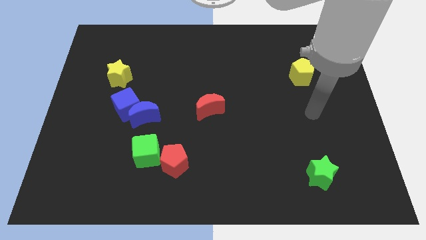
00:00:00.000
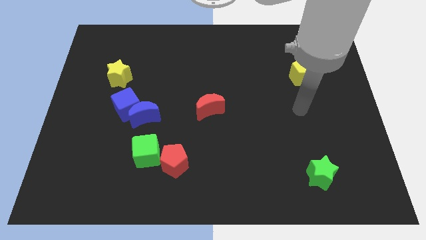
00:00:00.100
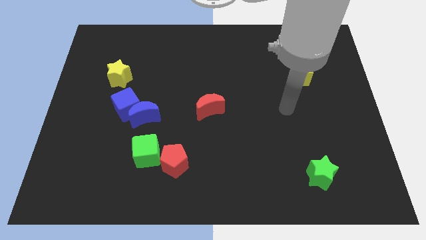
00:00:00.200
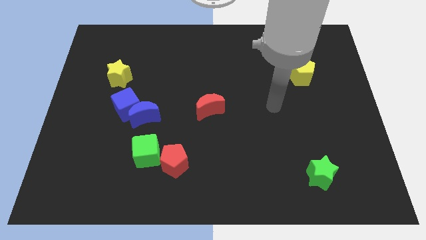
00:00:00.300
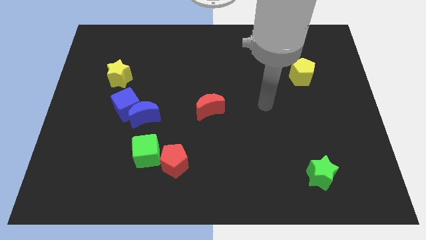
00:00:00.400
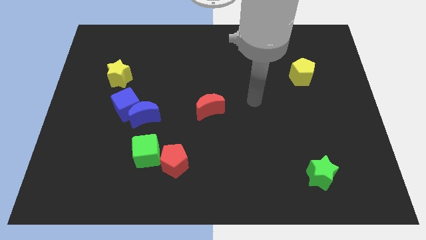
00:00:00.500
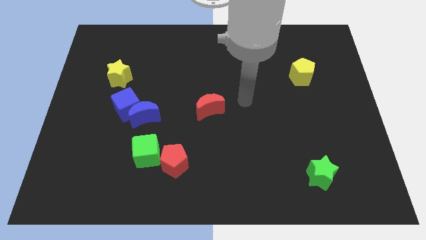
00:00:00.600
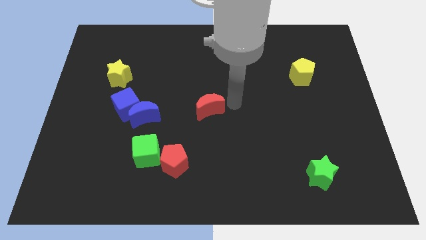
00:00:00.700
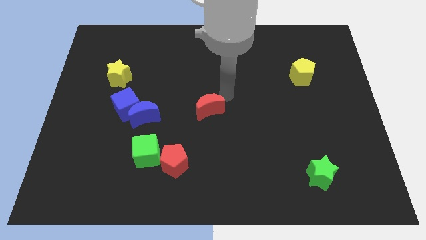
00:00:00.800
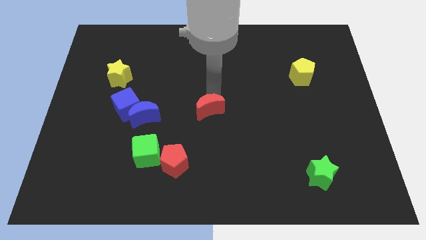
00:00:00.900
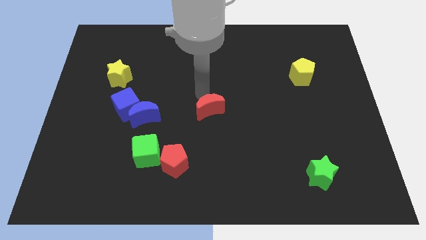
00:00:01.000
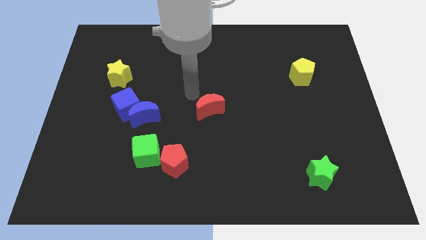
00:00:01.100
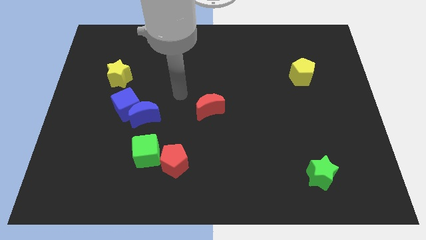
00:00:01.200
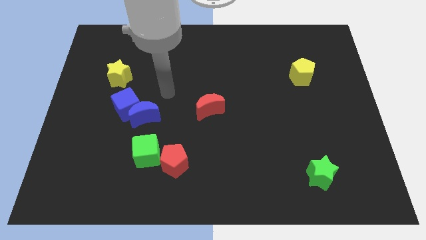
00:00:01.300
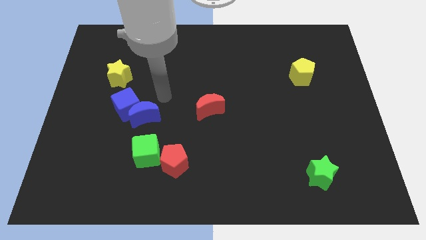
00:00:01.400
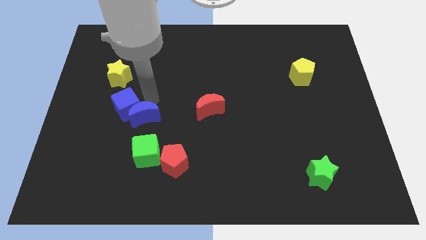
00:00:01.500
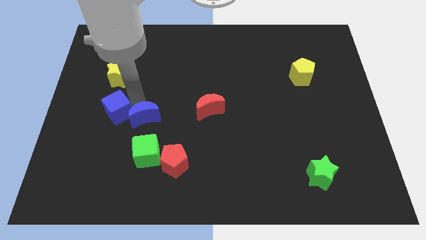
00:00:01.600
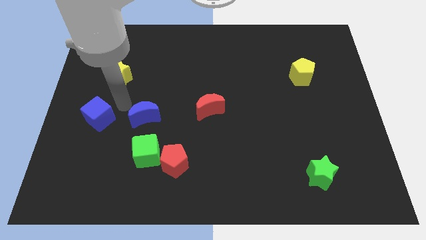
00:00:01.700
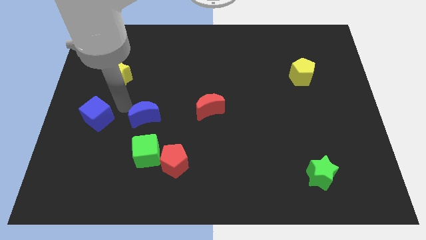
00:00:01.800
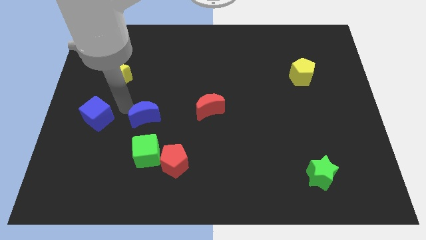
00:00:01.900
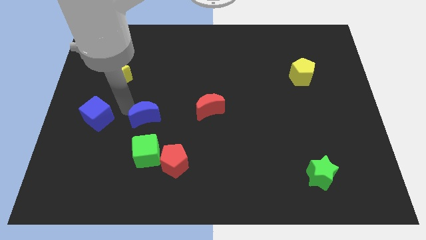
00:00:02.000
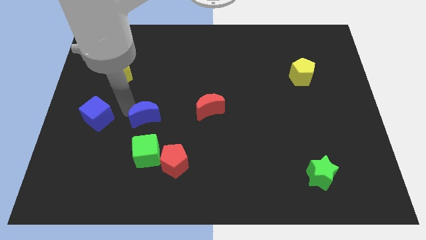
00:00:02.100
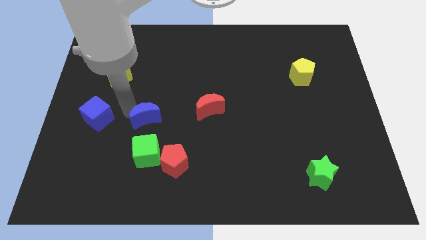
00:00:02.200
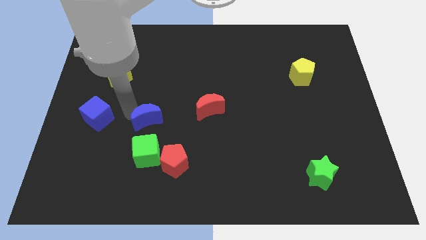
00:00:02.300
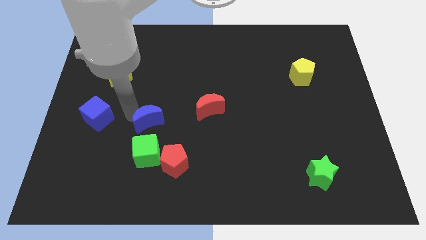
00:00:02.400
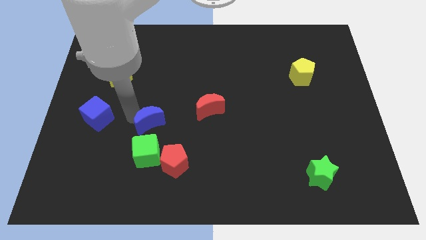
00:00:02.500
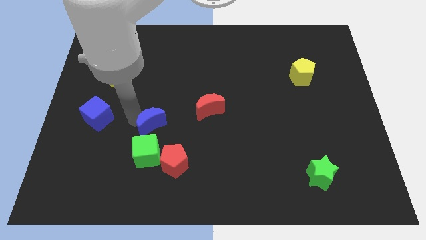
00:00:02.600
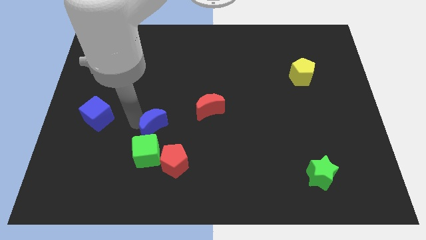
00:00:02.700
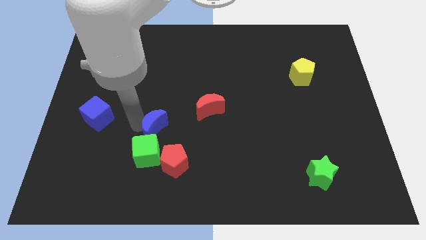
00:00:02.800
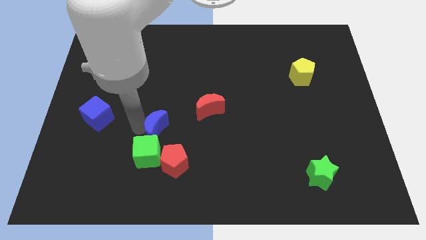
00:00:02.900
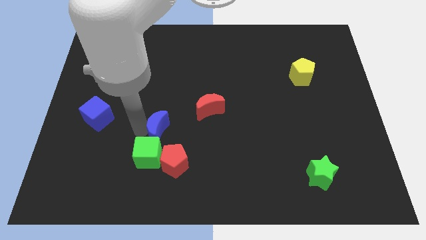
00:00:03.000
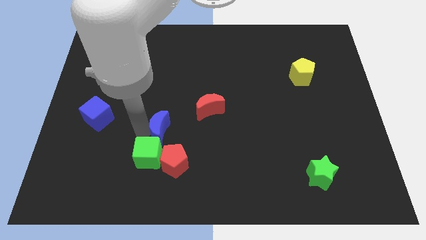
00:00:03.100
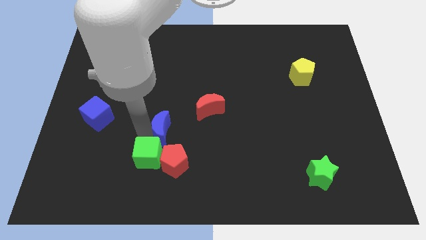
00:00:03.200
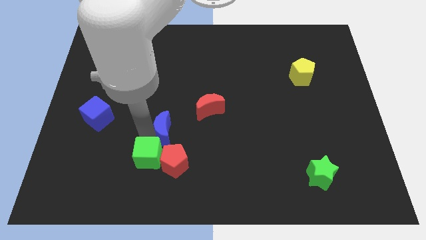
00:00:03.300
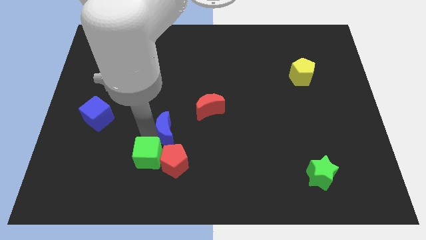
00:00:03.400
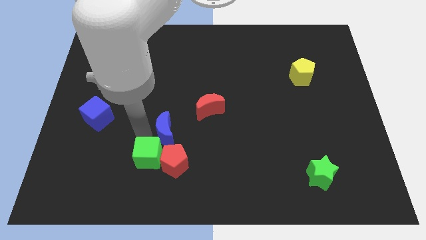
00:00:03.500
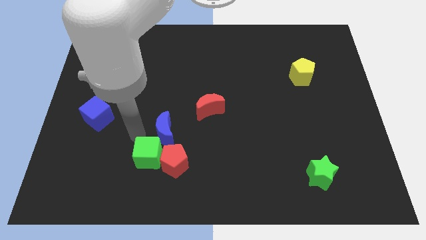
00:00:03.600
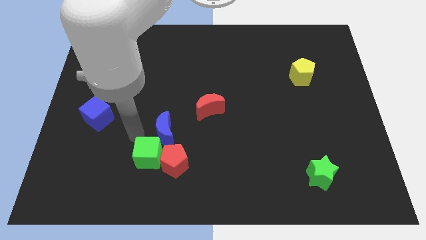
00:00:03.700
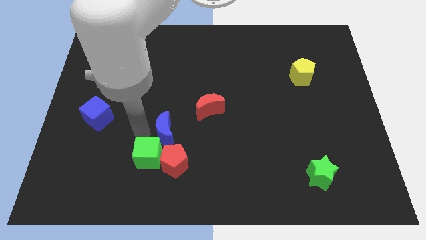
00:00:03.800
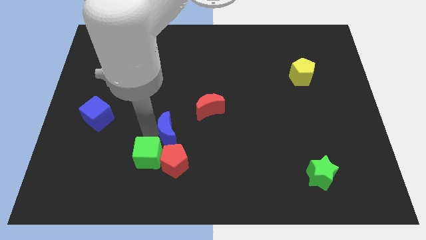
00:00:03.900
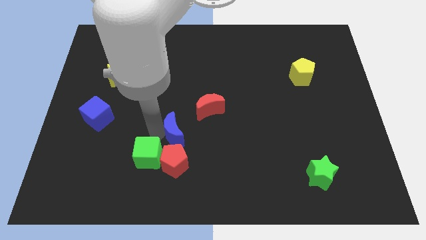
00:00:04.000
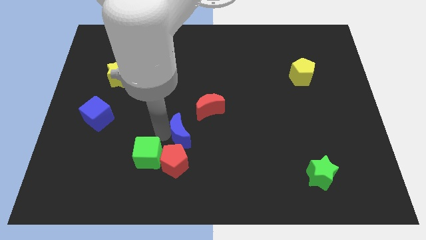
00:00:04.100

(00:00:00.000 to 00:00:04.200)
slightly slide the blue moon right

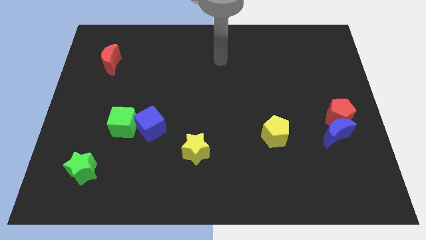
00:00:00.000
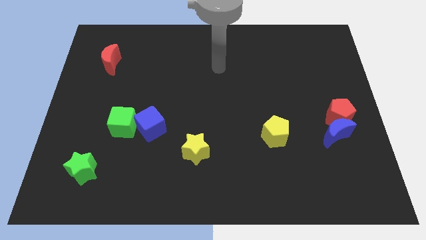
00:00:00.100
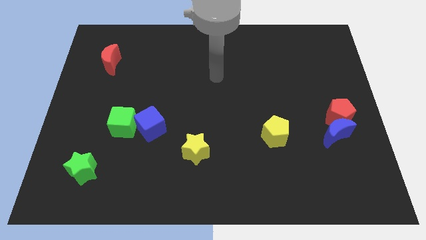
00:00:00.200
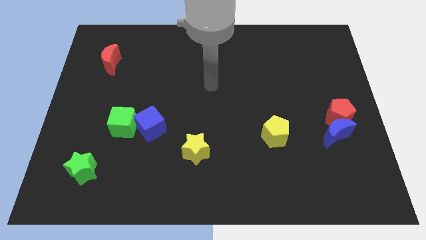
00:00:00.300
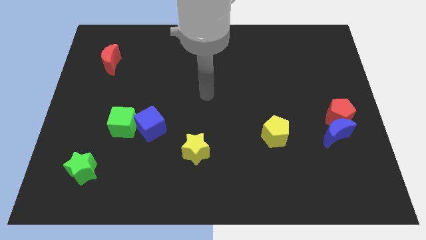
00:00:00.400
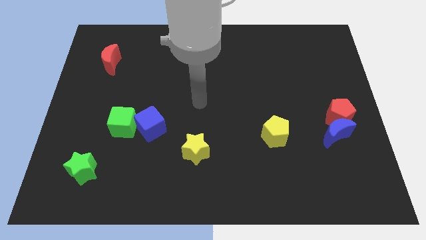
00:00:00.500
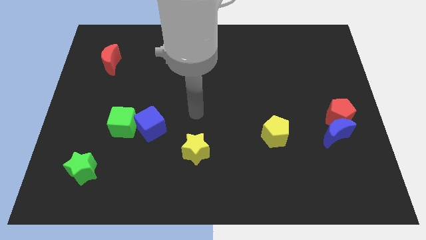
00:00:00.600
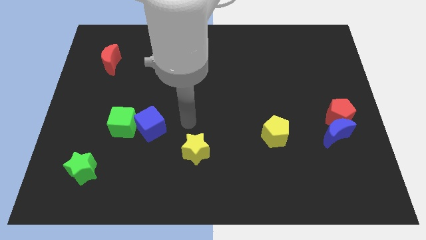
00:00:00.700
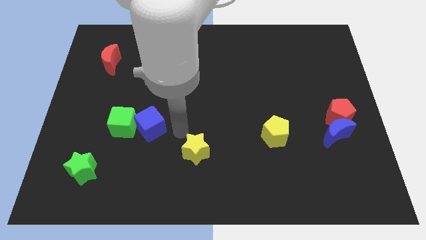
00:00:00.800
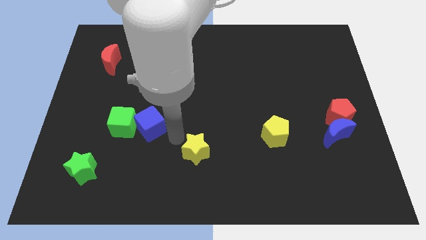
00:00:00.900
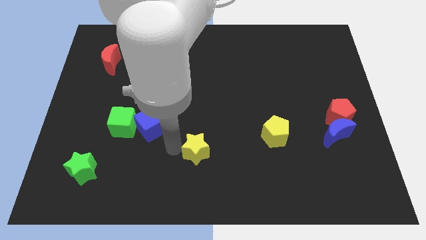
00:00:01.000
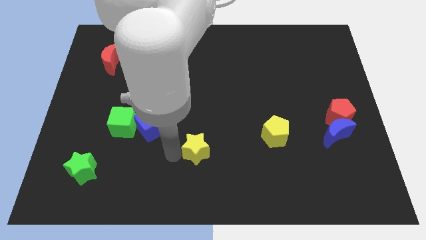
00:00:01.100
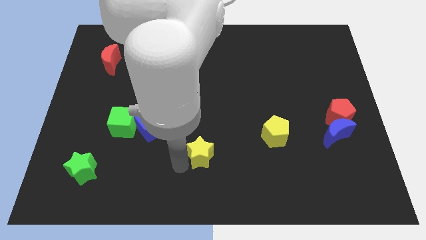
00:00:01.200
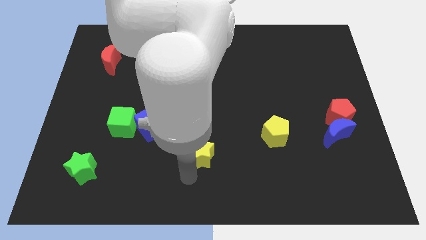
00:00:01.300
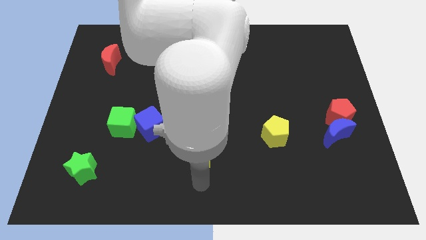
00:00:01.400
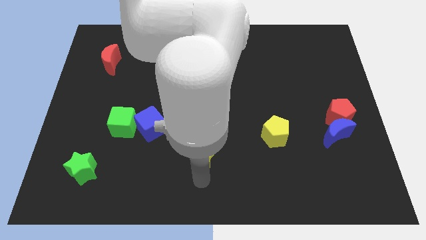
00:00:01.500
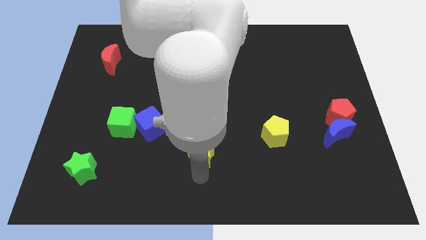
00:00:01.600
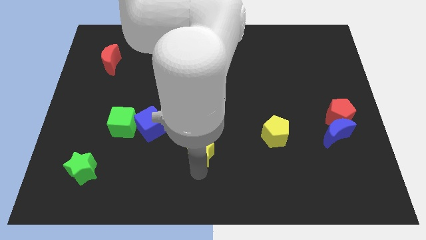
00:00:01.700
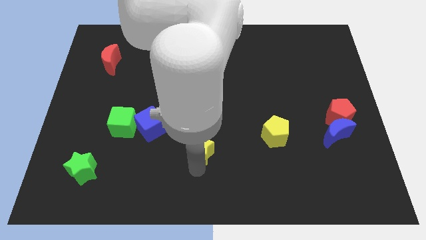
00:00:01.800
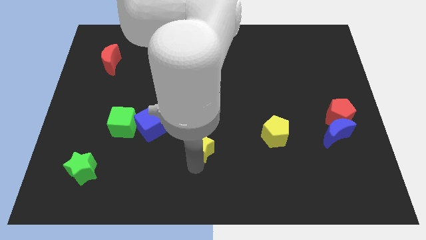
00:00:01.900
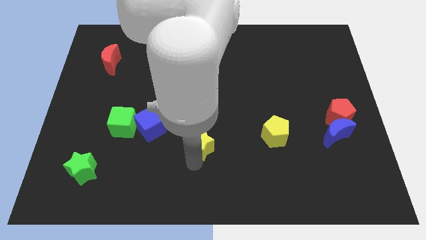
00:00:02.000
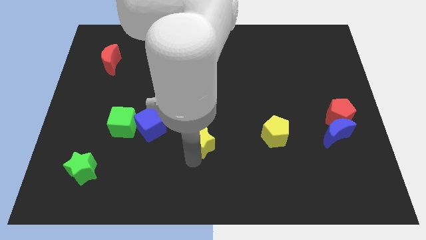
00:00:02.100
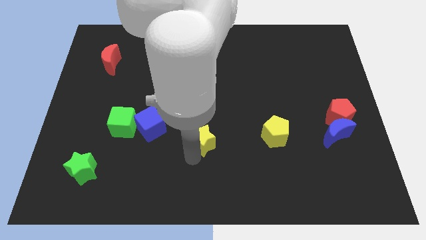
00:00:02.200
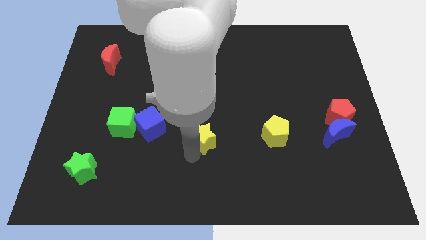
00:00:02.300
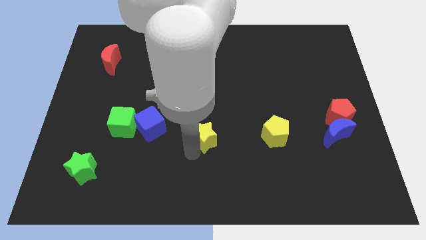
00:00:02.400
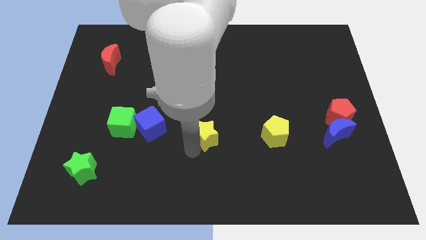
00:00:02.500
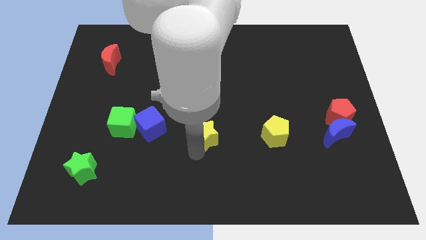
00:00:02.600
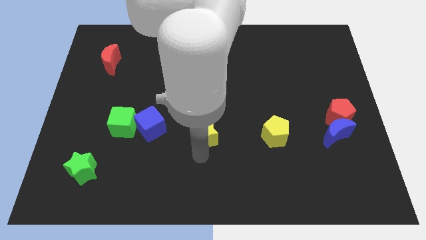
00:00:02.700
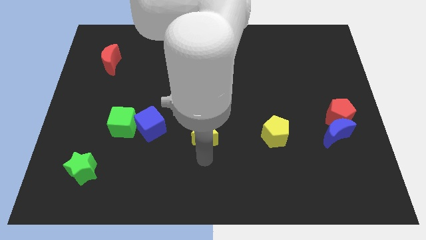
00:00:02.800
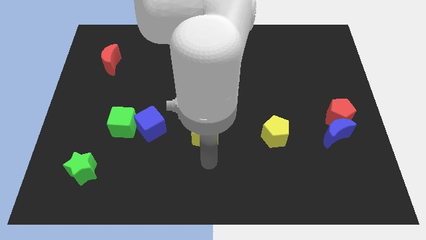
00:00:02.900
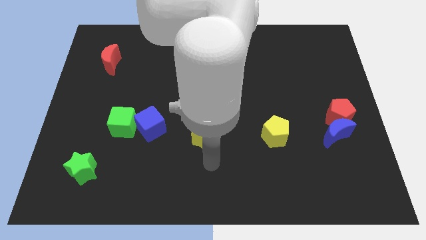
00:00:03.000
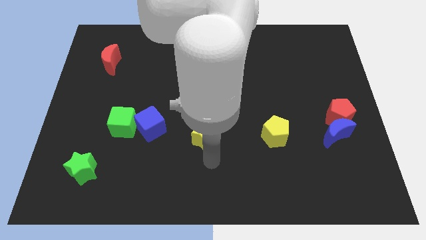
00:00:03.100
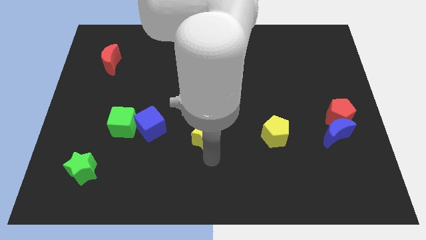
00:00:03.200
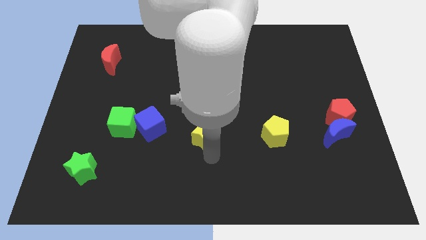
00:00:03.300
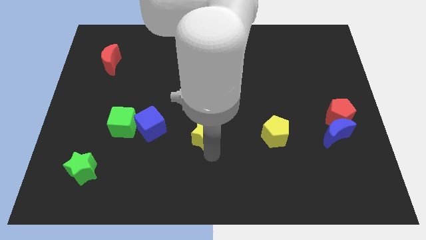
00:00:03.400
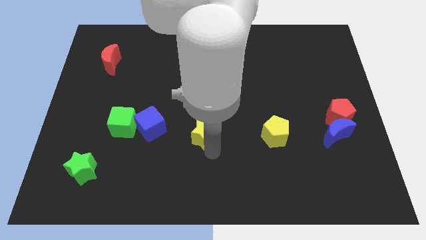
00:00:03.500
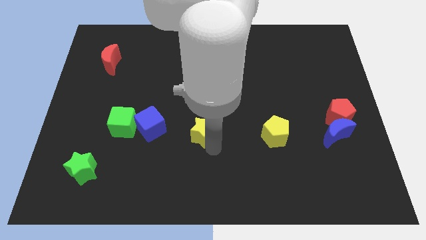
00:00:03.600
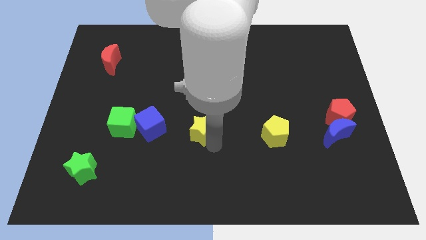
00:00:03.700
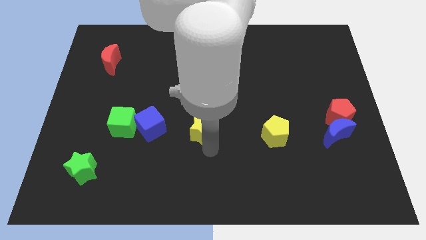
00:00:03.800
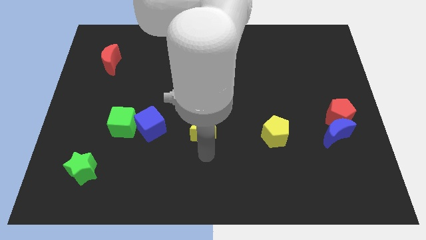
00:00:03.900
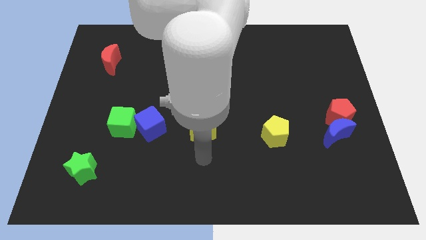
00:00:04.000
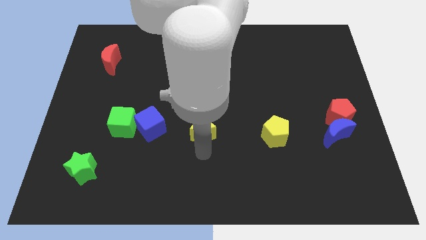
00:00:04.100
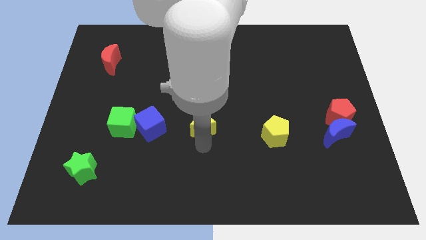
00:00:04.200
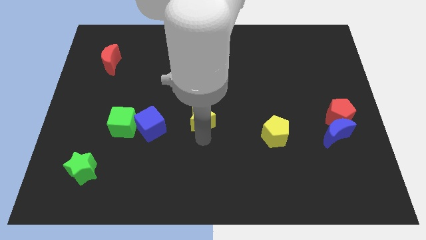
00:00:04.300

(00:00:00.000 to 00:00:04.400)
push the yellow star slightly upwards
